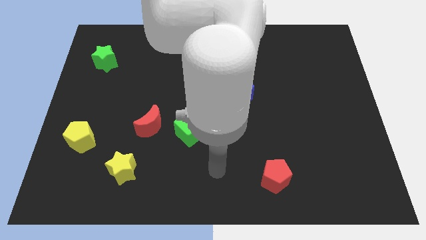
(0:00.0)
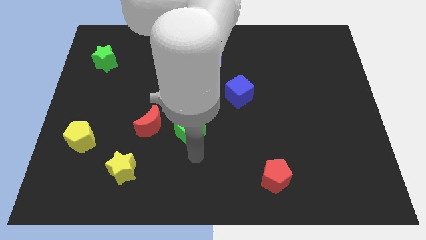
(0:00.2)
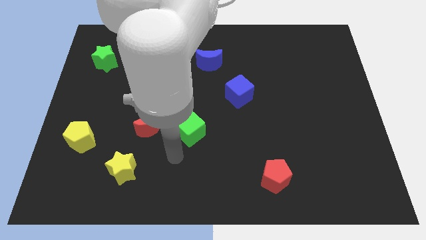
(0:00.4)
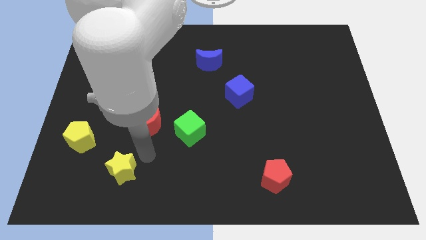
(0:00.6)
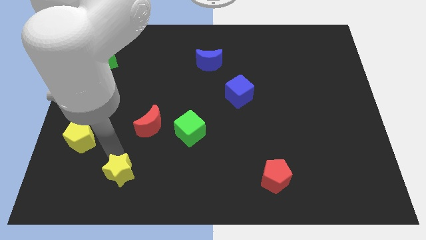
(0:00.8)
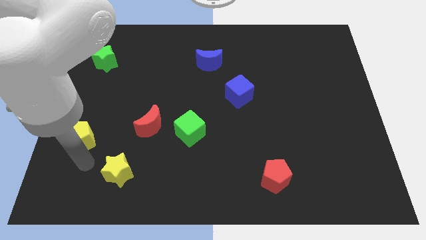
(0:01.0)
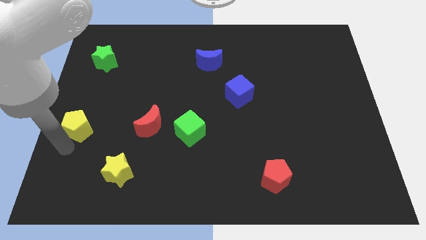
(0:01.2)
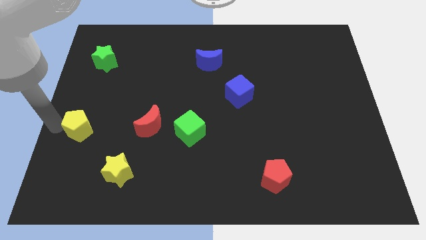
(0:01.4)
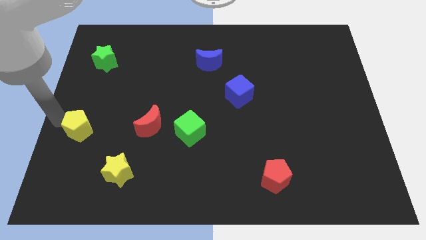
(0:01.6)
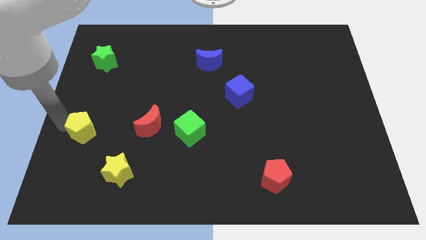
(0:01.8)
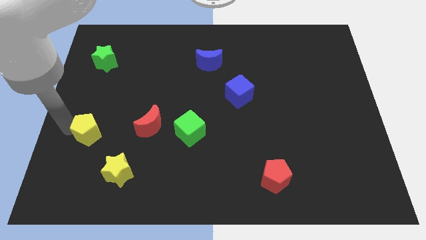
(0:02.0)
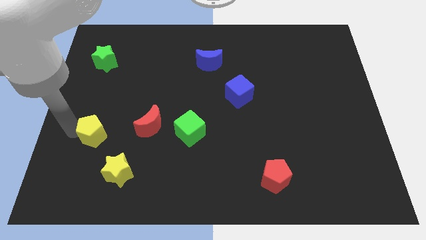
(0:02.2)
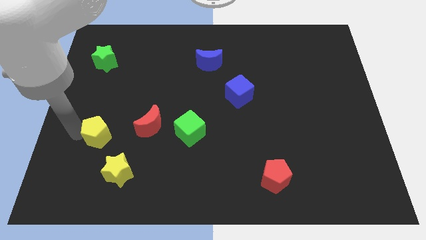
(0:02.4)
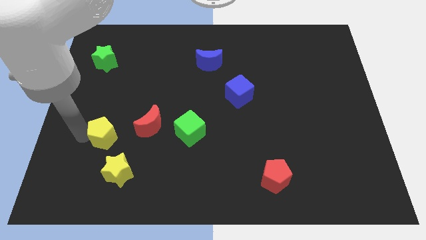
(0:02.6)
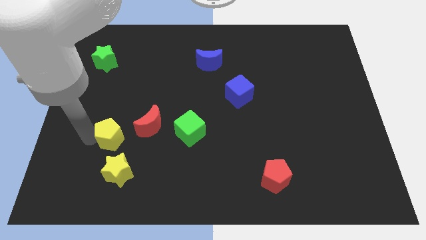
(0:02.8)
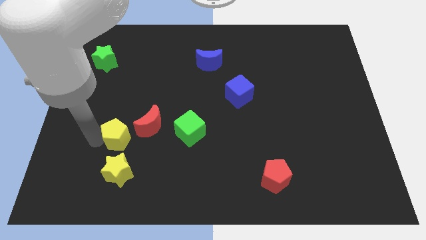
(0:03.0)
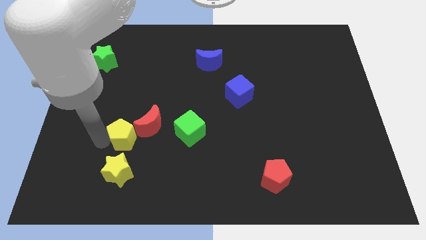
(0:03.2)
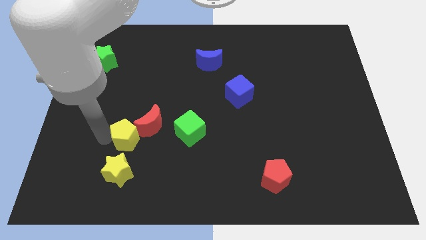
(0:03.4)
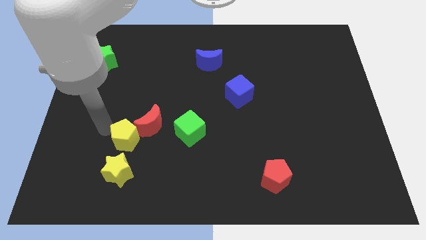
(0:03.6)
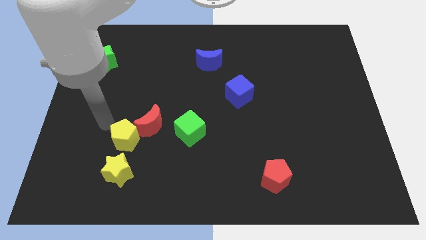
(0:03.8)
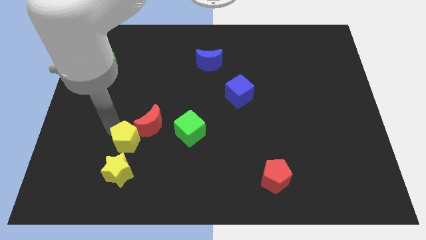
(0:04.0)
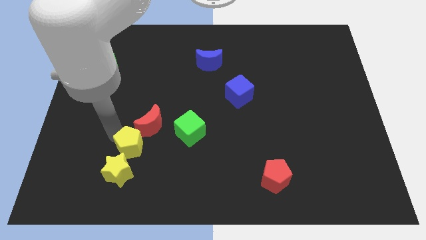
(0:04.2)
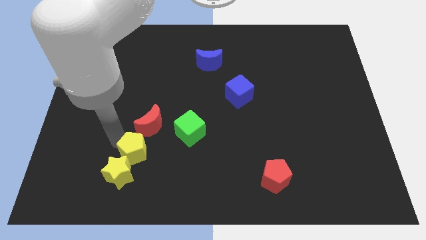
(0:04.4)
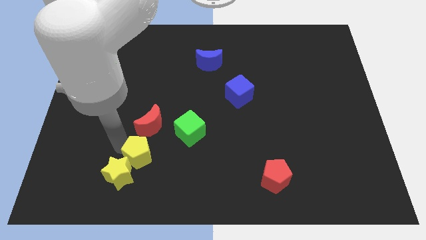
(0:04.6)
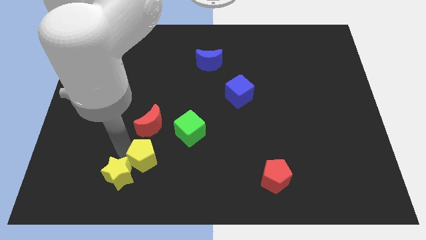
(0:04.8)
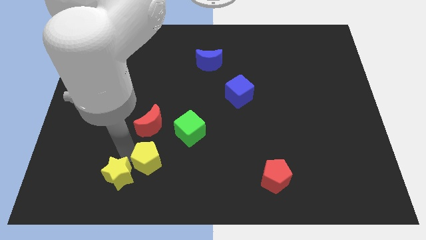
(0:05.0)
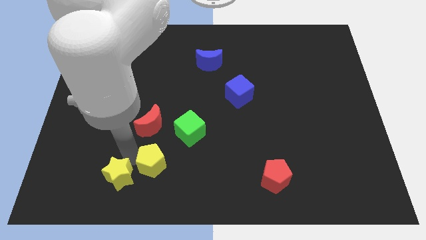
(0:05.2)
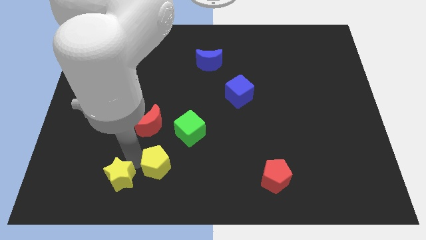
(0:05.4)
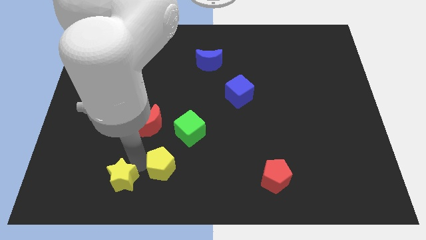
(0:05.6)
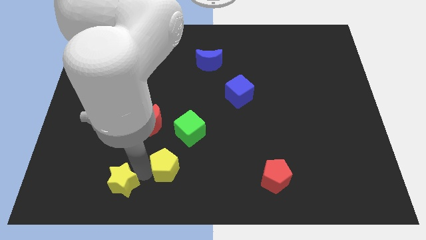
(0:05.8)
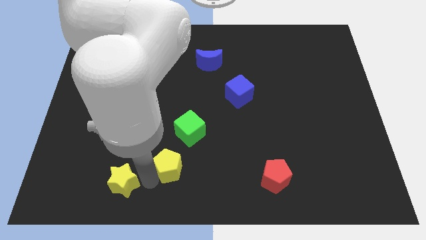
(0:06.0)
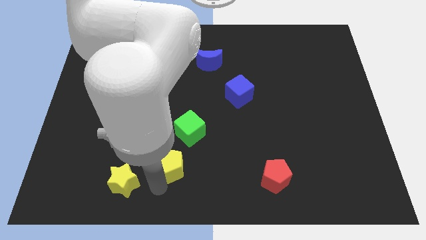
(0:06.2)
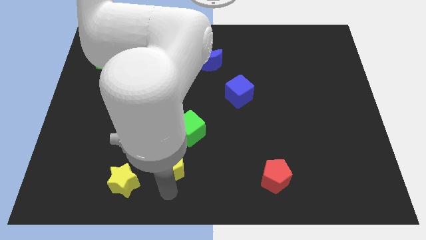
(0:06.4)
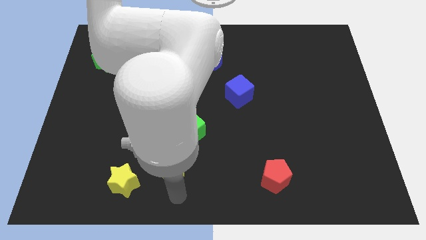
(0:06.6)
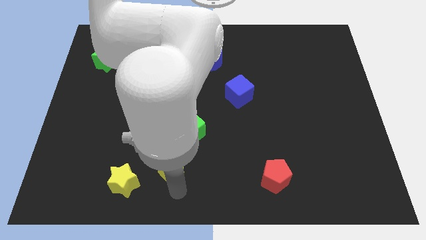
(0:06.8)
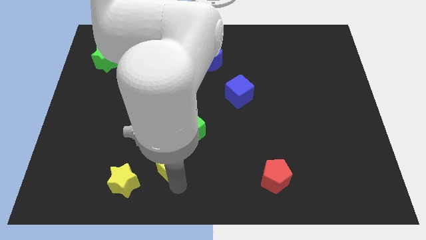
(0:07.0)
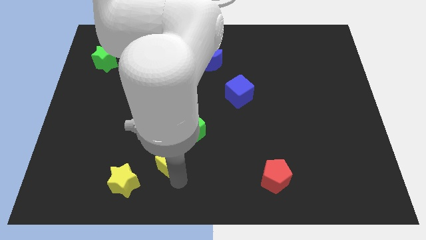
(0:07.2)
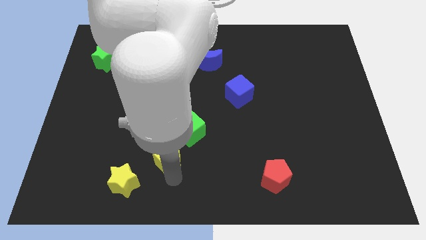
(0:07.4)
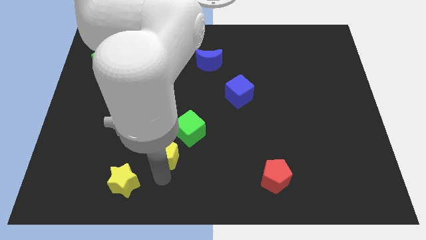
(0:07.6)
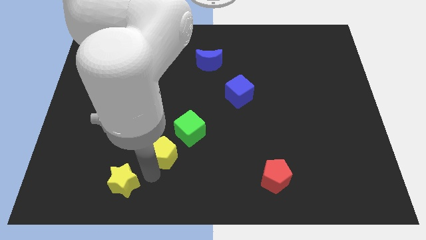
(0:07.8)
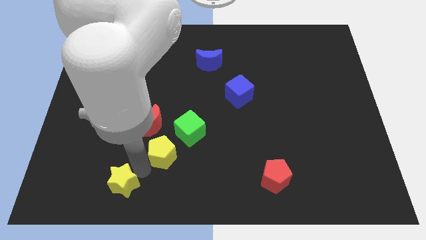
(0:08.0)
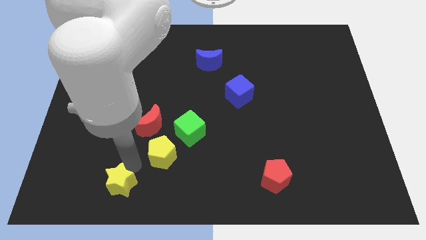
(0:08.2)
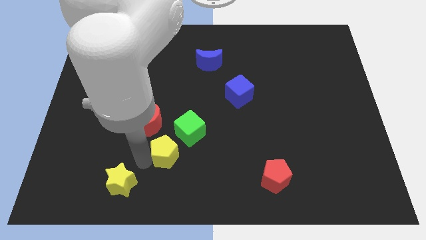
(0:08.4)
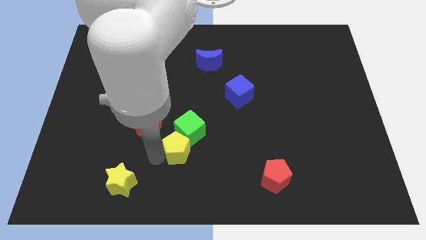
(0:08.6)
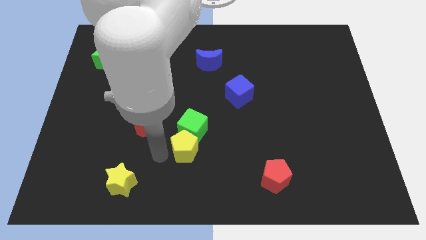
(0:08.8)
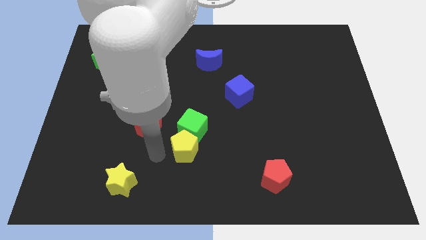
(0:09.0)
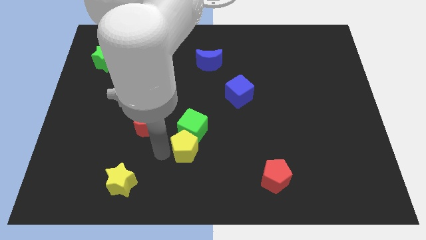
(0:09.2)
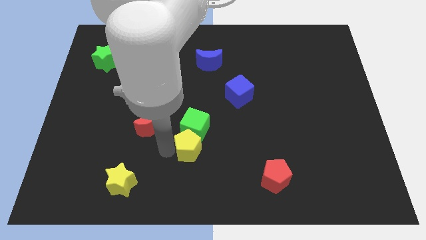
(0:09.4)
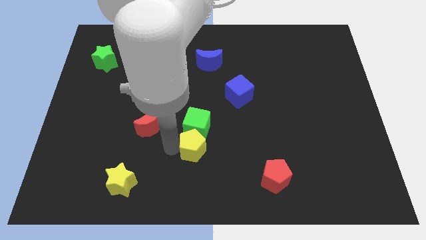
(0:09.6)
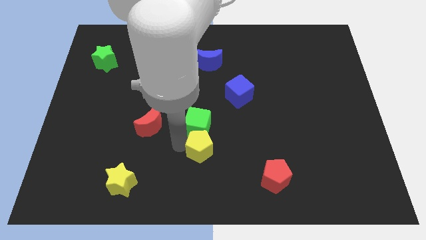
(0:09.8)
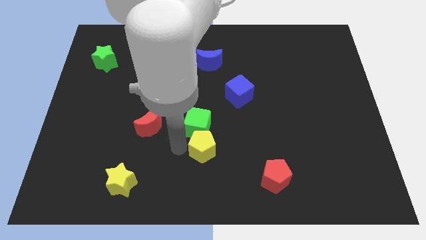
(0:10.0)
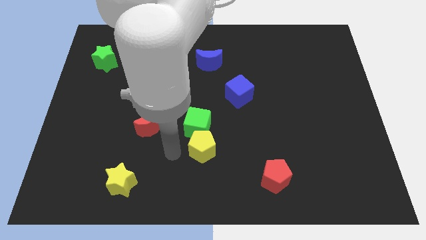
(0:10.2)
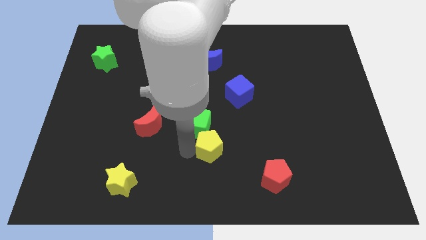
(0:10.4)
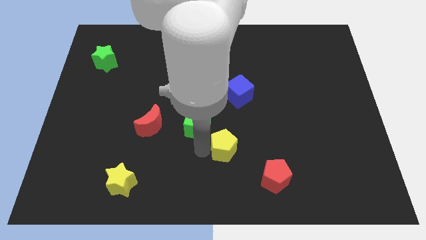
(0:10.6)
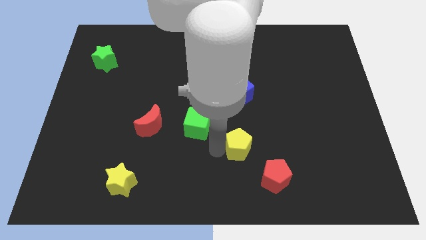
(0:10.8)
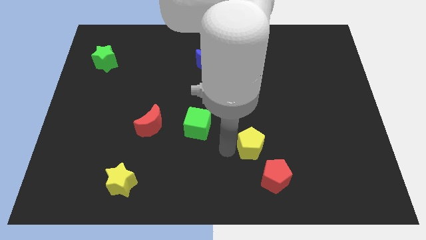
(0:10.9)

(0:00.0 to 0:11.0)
put the yellow pentagon to the top of the red pentagon

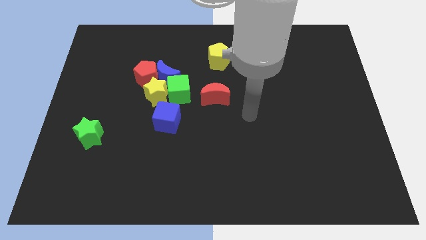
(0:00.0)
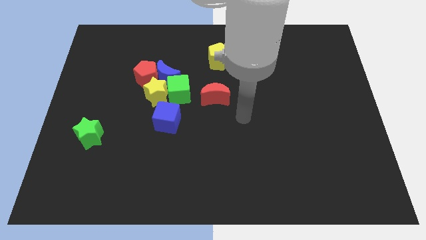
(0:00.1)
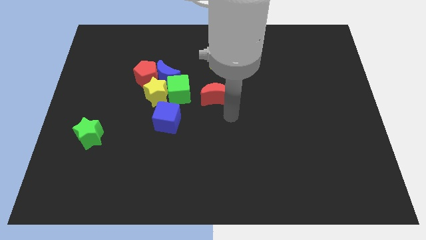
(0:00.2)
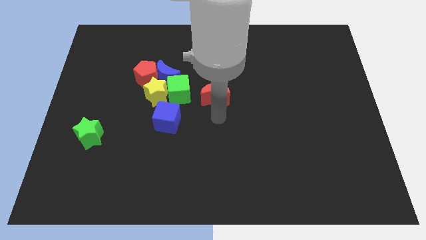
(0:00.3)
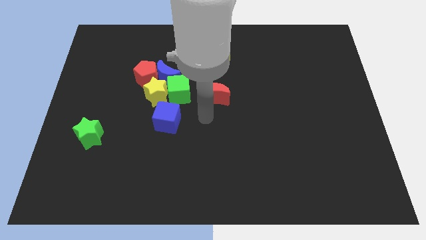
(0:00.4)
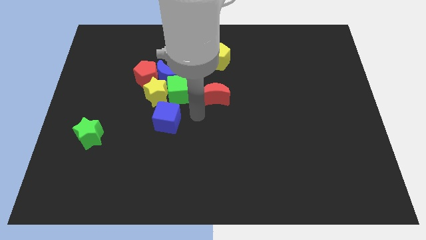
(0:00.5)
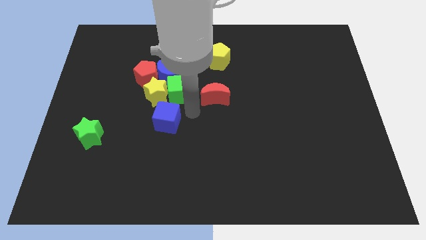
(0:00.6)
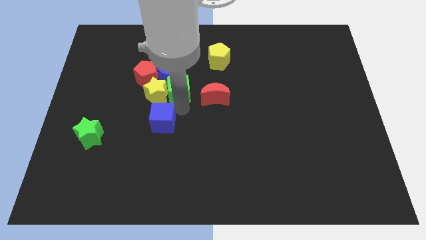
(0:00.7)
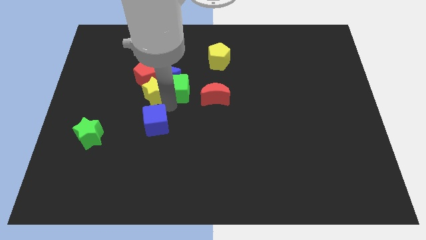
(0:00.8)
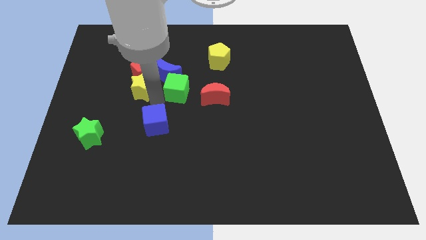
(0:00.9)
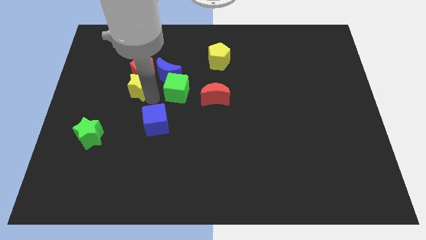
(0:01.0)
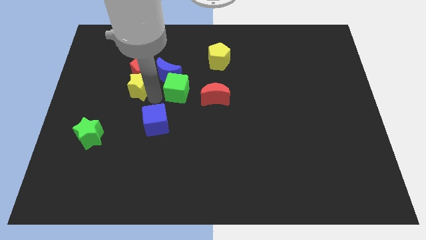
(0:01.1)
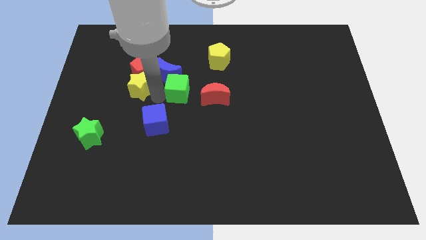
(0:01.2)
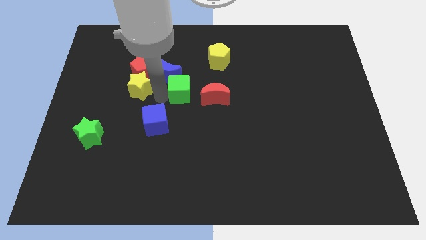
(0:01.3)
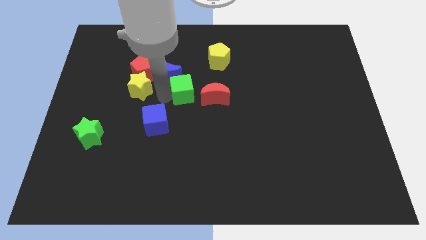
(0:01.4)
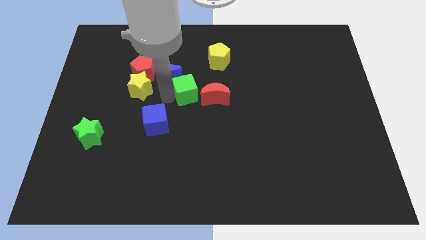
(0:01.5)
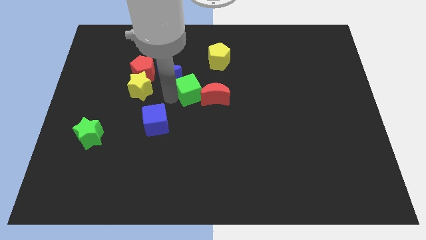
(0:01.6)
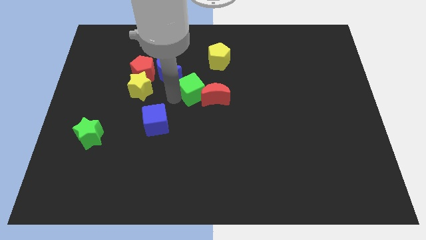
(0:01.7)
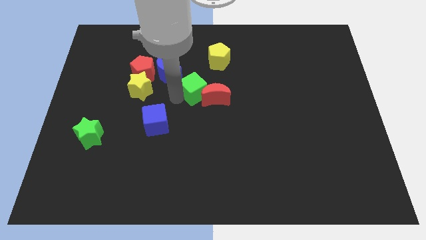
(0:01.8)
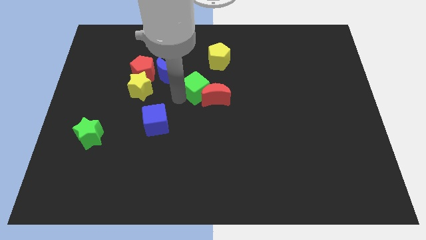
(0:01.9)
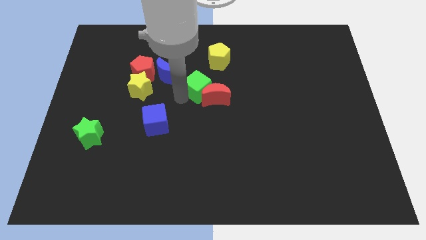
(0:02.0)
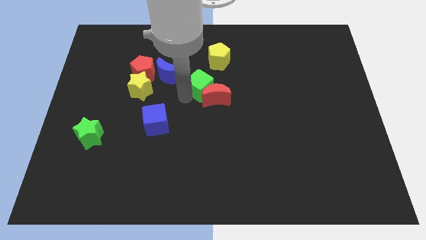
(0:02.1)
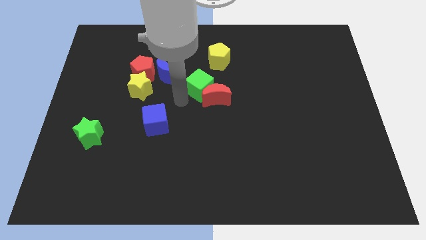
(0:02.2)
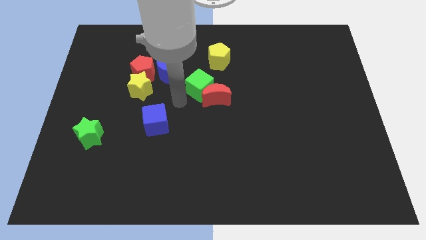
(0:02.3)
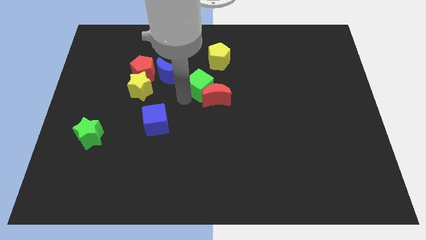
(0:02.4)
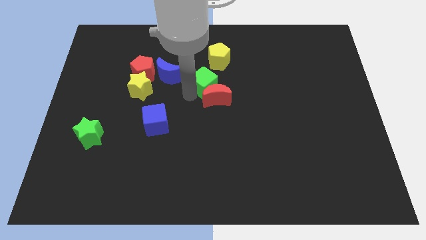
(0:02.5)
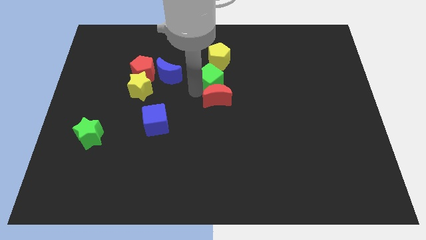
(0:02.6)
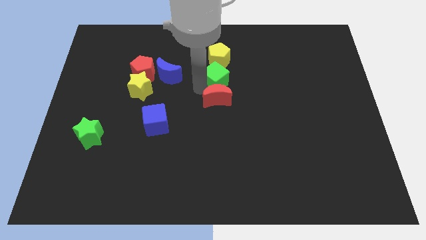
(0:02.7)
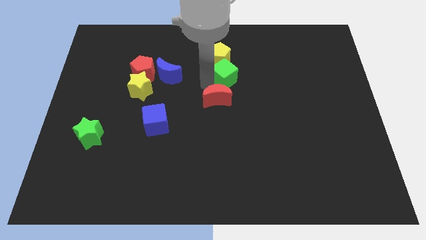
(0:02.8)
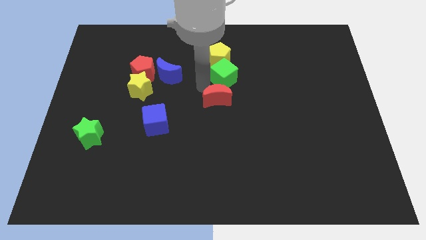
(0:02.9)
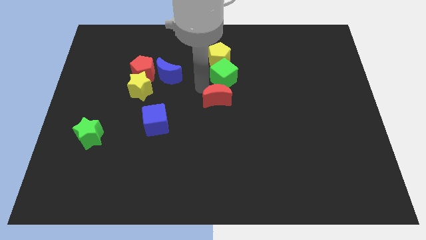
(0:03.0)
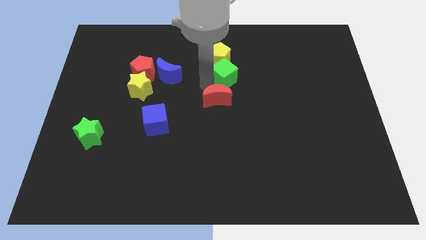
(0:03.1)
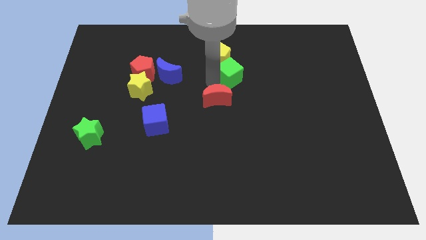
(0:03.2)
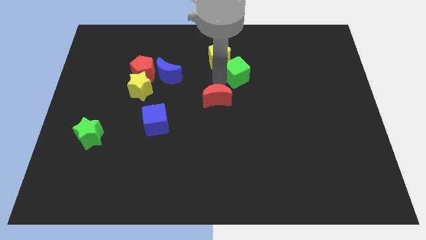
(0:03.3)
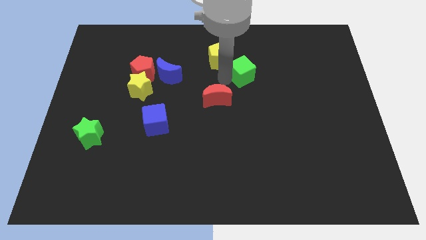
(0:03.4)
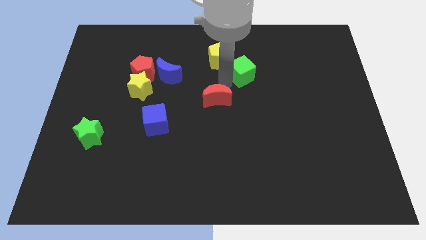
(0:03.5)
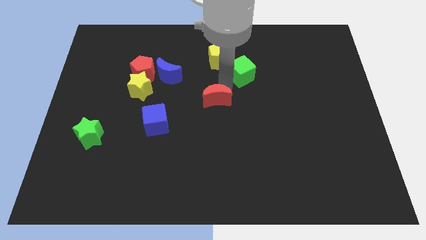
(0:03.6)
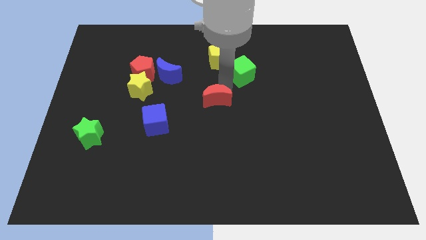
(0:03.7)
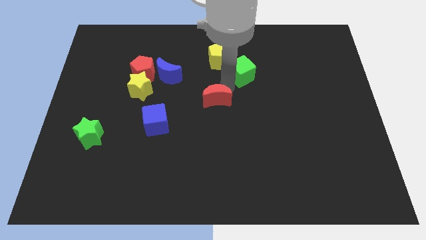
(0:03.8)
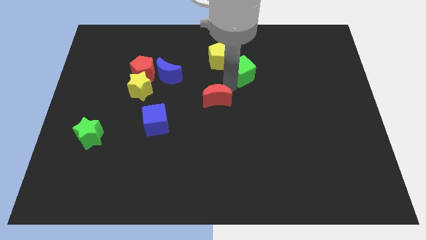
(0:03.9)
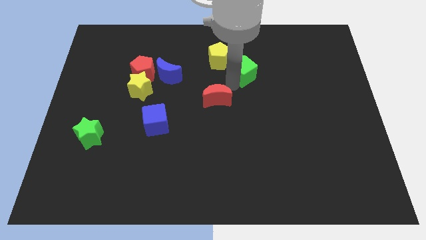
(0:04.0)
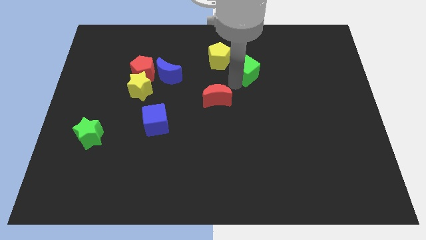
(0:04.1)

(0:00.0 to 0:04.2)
put the green cube to the right of the yellow pentagon
